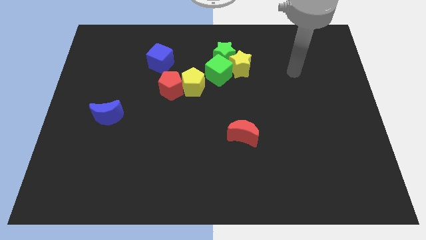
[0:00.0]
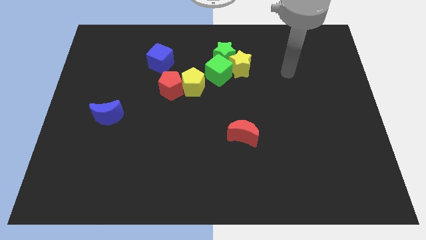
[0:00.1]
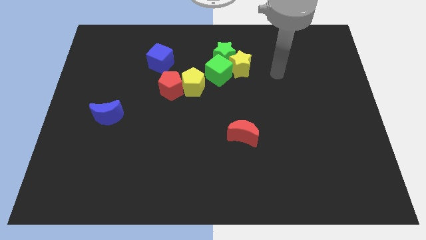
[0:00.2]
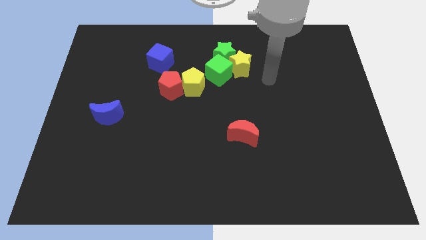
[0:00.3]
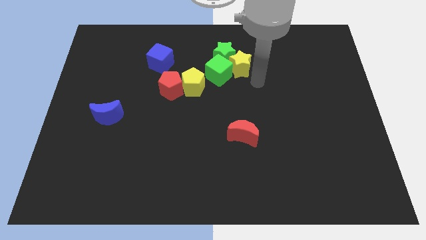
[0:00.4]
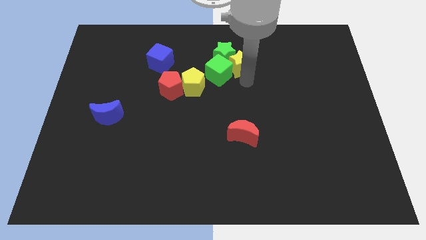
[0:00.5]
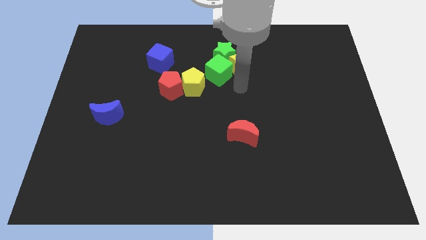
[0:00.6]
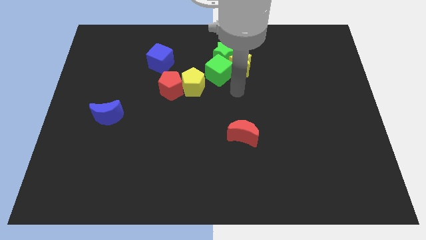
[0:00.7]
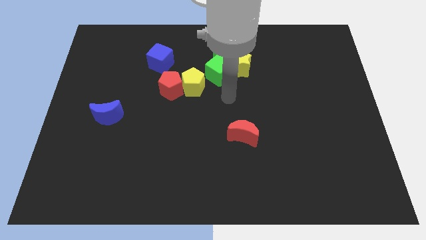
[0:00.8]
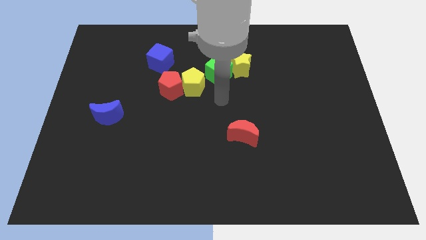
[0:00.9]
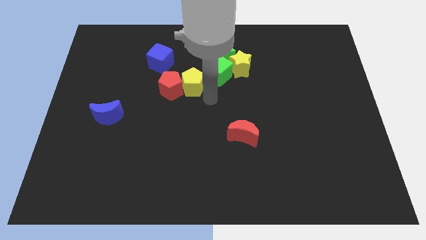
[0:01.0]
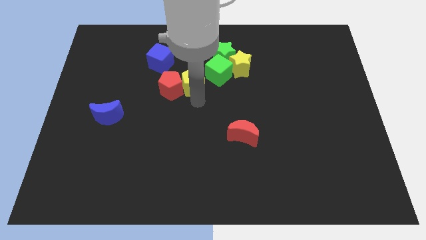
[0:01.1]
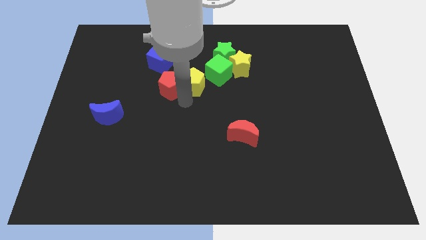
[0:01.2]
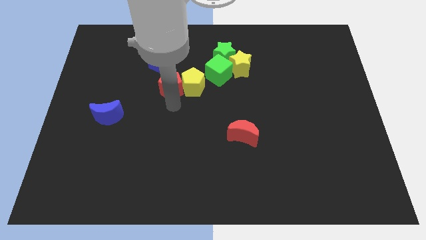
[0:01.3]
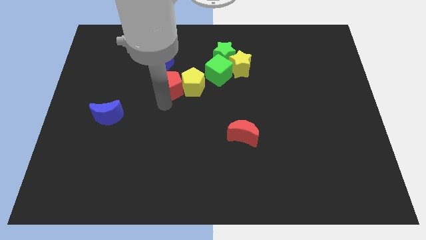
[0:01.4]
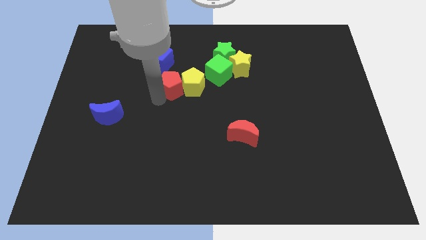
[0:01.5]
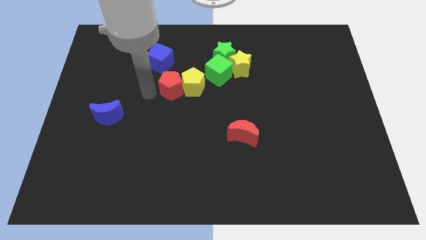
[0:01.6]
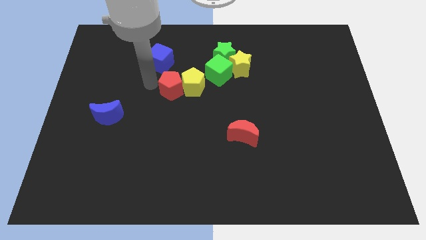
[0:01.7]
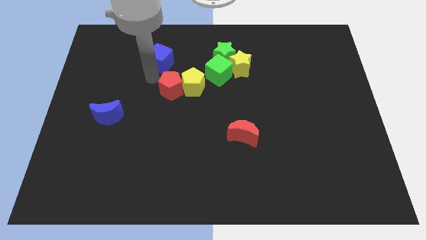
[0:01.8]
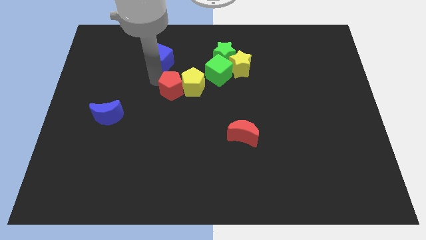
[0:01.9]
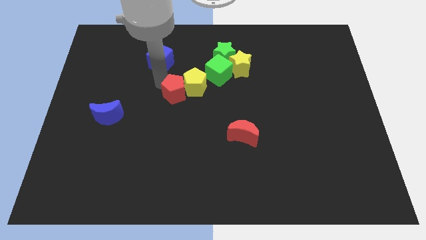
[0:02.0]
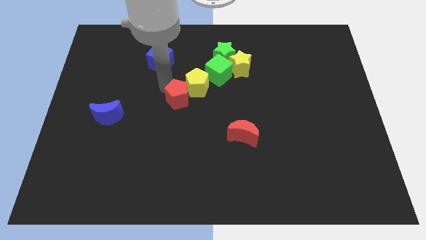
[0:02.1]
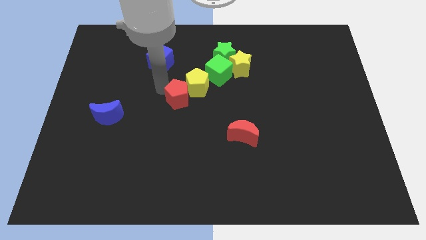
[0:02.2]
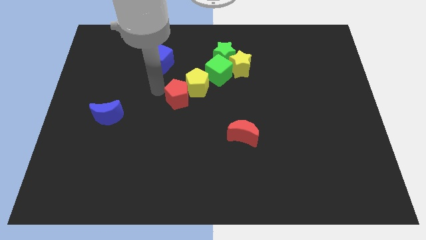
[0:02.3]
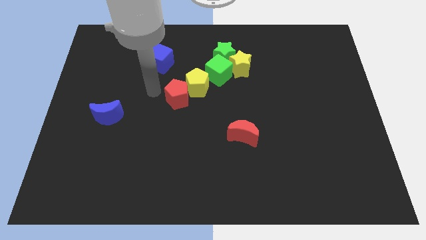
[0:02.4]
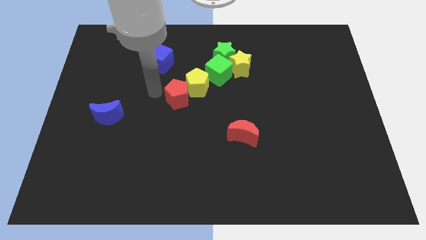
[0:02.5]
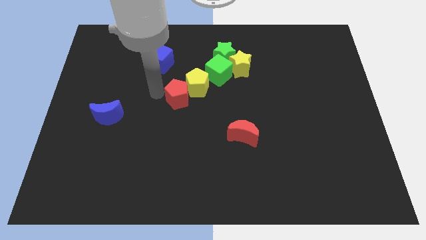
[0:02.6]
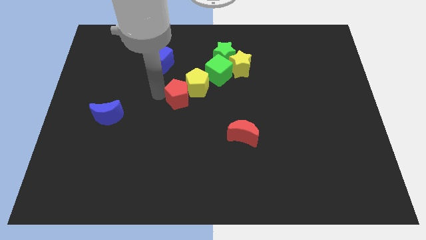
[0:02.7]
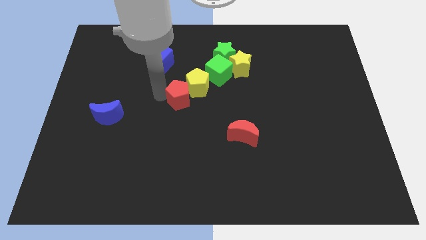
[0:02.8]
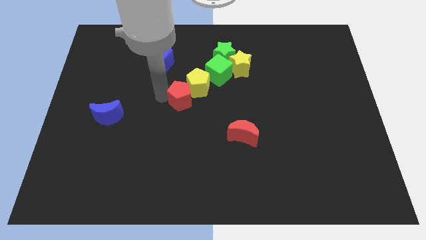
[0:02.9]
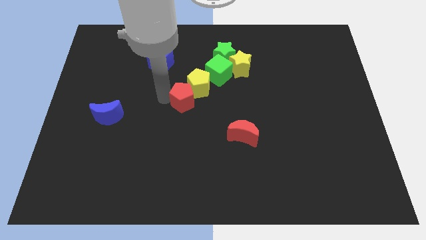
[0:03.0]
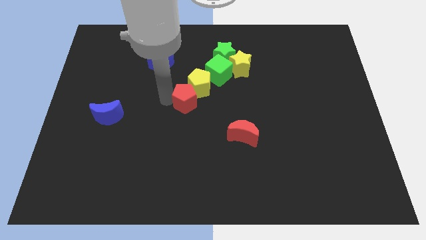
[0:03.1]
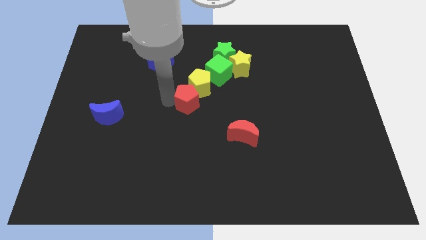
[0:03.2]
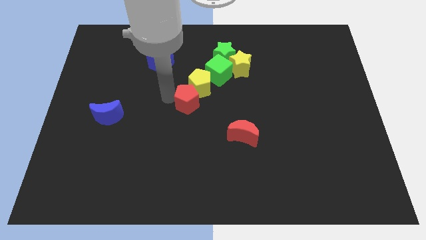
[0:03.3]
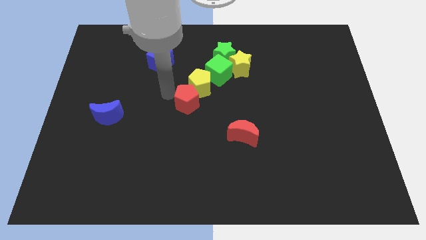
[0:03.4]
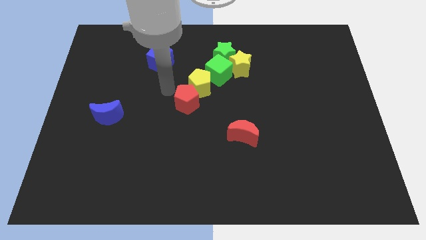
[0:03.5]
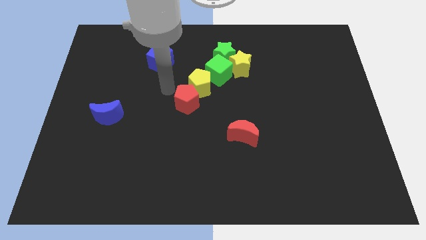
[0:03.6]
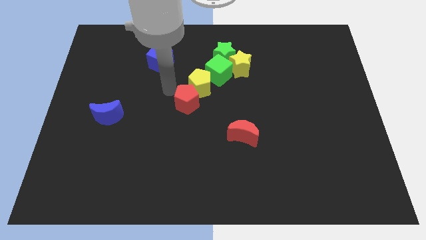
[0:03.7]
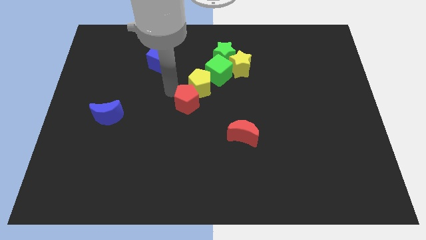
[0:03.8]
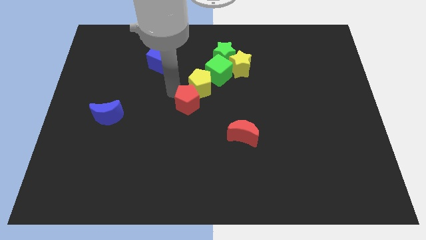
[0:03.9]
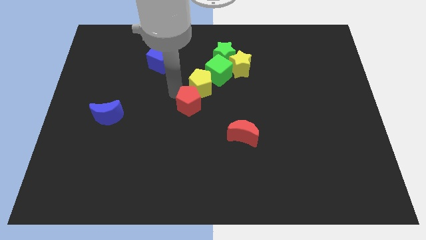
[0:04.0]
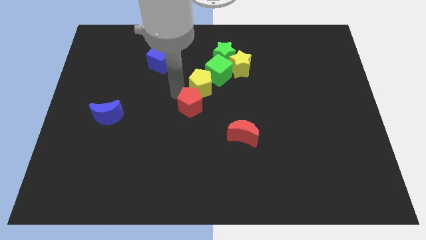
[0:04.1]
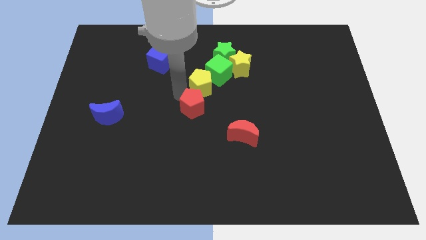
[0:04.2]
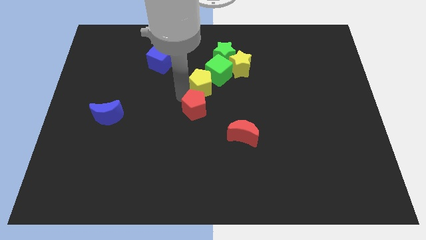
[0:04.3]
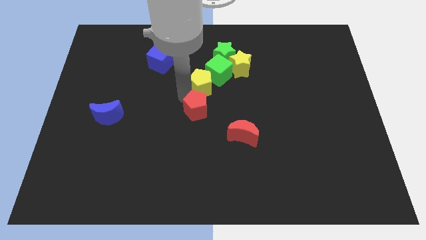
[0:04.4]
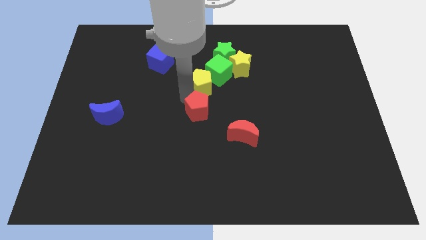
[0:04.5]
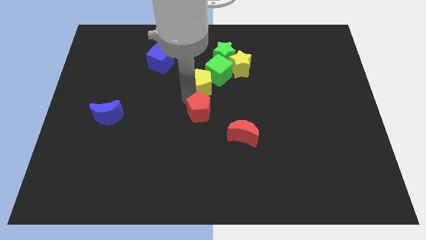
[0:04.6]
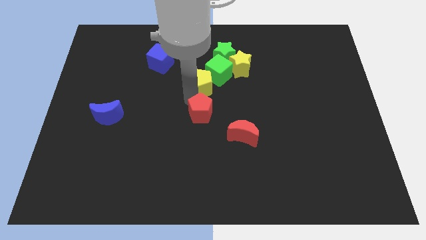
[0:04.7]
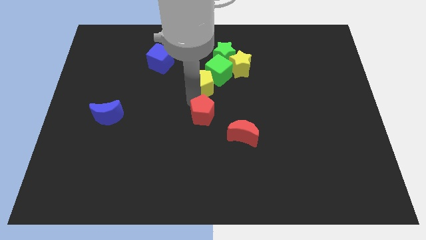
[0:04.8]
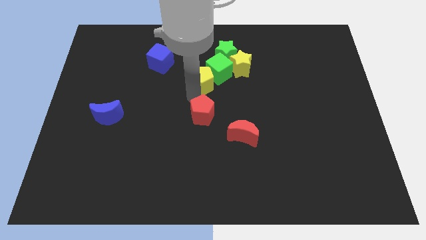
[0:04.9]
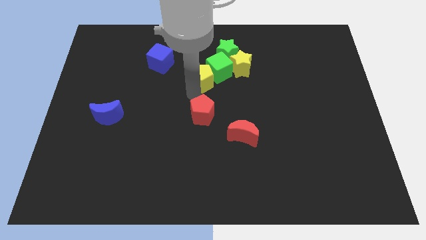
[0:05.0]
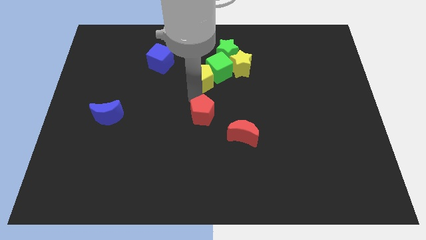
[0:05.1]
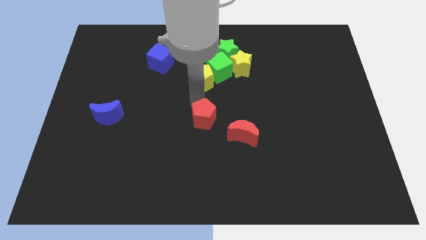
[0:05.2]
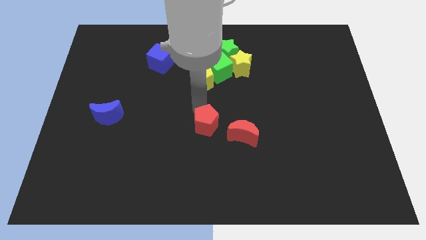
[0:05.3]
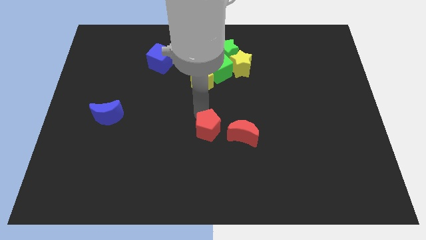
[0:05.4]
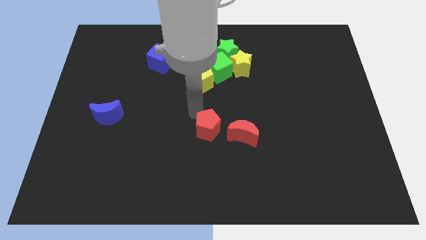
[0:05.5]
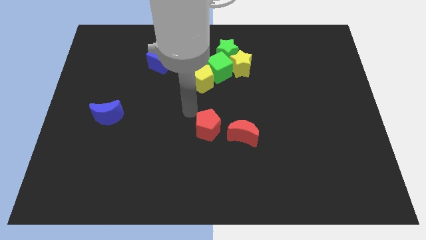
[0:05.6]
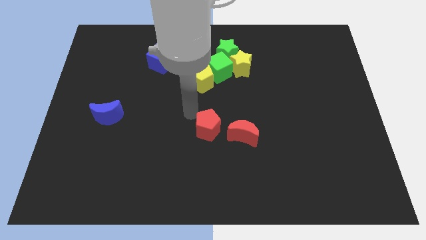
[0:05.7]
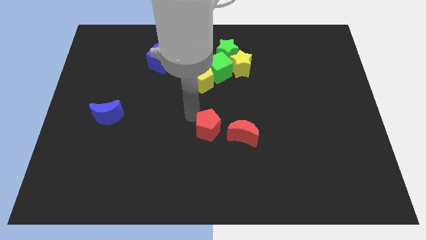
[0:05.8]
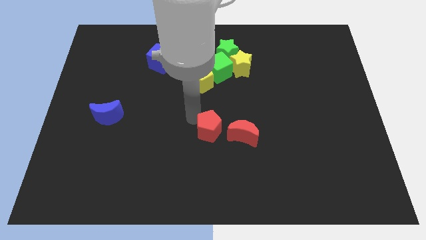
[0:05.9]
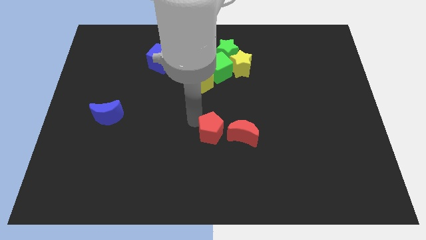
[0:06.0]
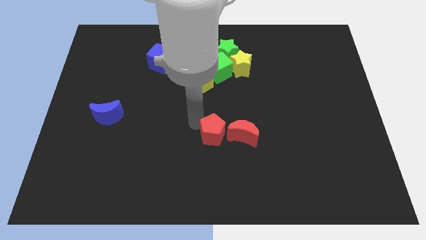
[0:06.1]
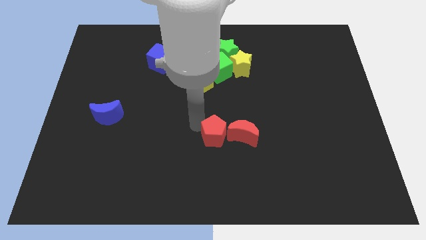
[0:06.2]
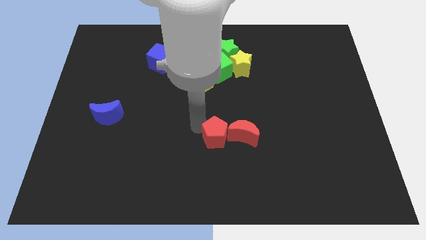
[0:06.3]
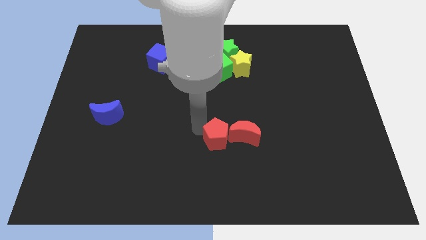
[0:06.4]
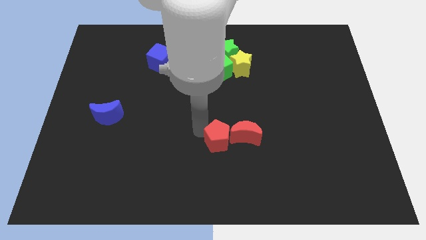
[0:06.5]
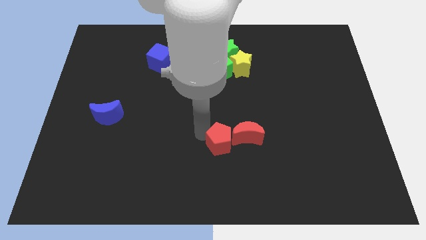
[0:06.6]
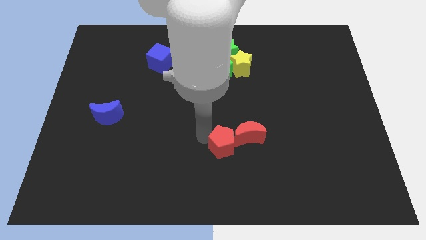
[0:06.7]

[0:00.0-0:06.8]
push the red pentagon diagonally downwards and to the right

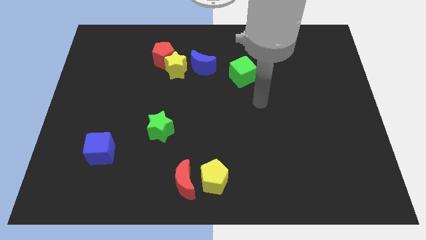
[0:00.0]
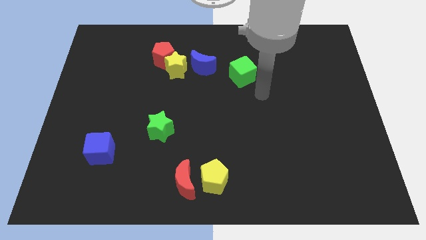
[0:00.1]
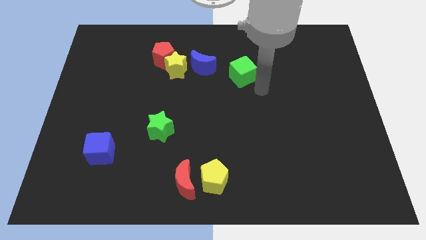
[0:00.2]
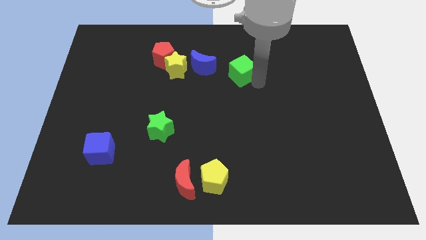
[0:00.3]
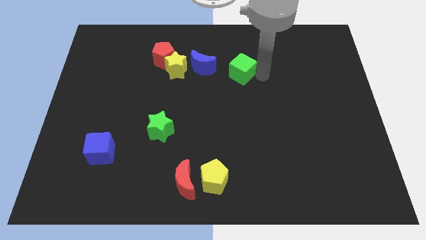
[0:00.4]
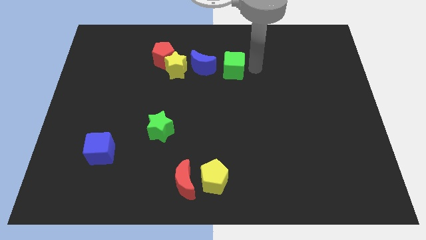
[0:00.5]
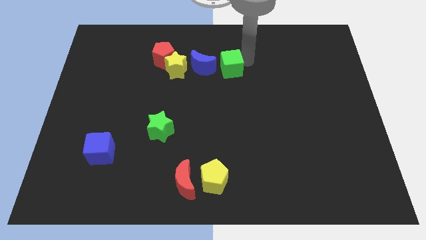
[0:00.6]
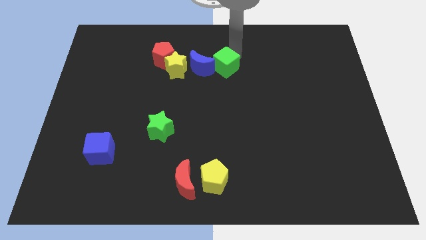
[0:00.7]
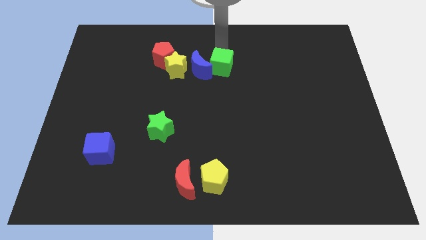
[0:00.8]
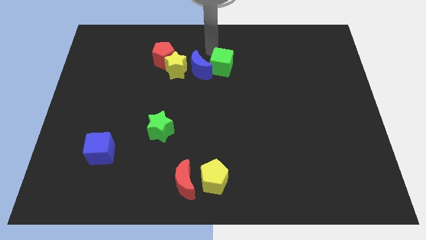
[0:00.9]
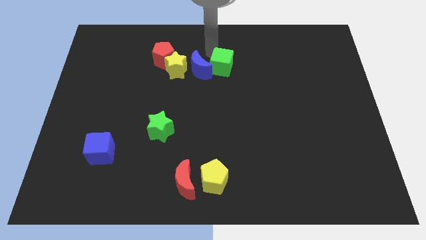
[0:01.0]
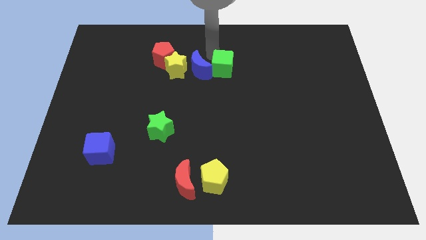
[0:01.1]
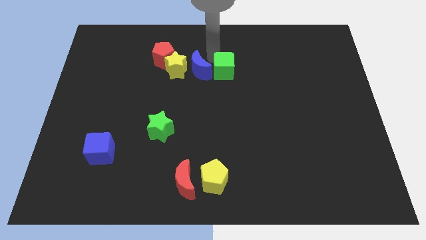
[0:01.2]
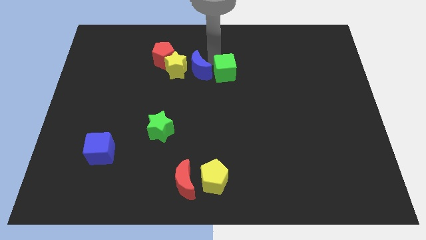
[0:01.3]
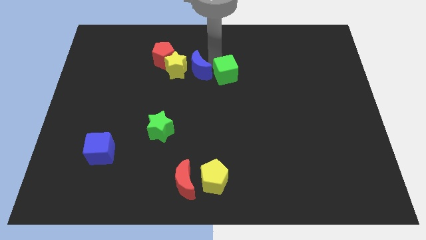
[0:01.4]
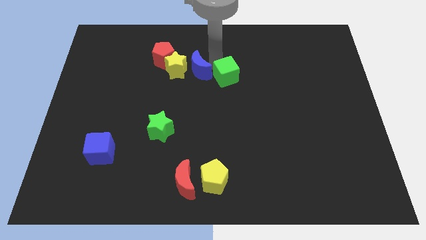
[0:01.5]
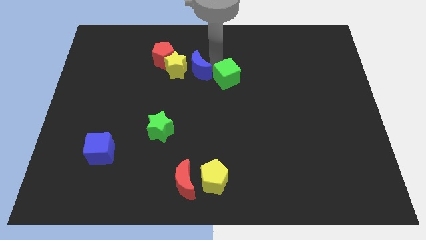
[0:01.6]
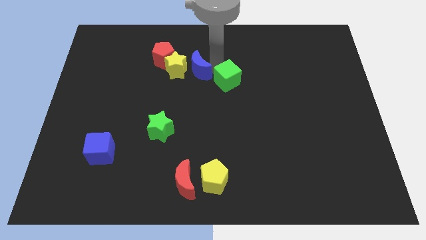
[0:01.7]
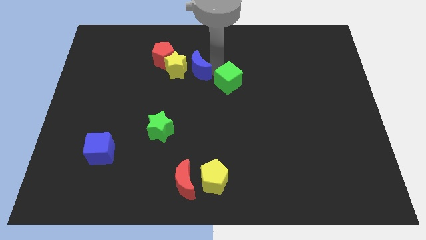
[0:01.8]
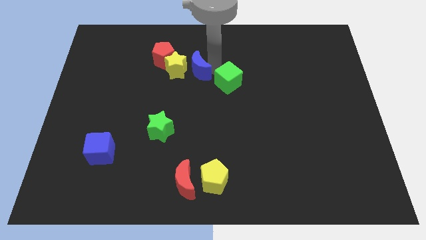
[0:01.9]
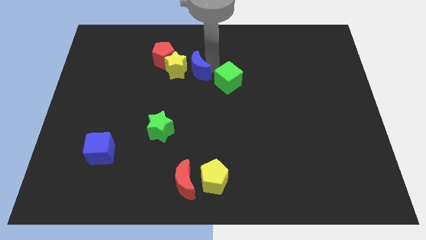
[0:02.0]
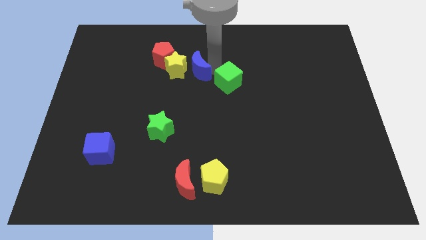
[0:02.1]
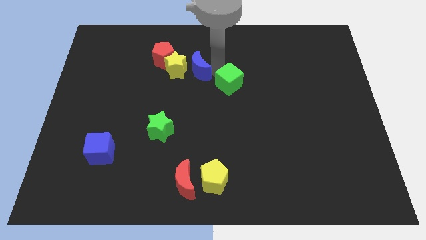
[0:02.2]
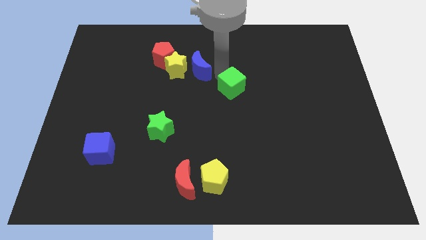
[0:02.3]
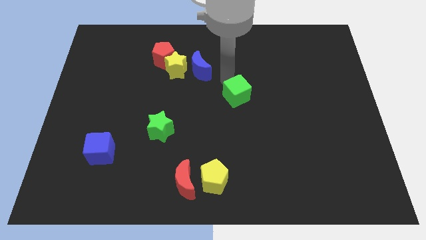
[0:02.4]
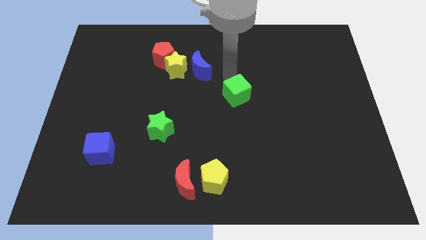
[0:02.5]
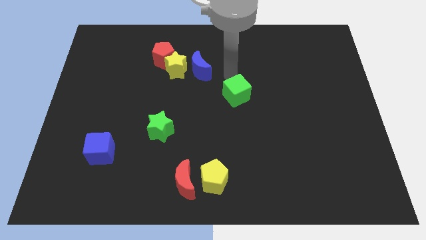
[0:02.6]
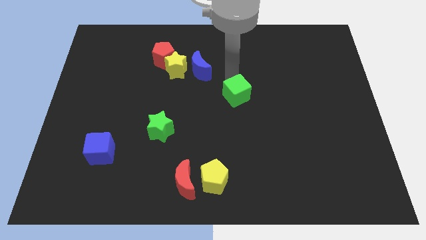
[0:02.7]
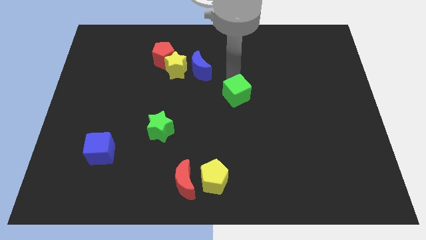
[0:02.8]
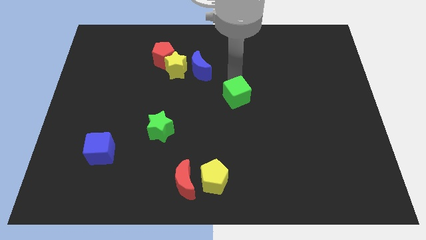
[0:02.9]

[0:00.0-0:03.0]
slightly move the green cube down
